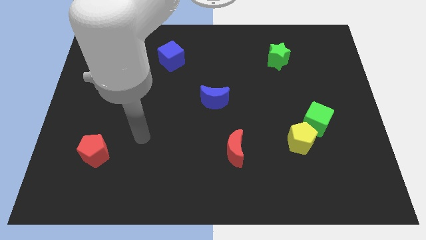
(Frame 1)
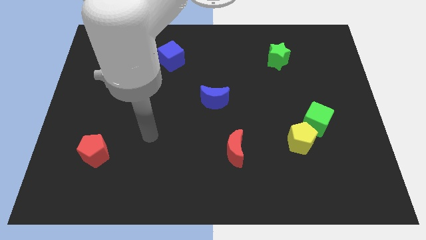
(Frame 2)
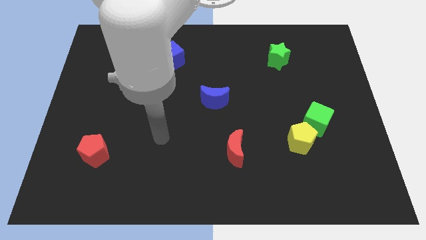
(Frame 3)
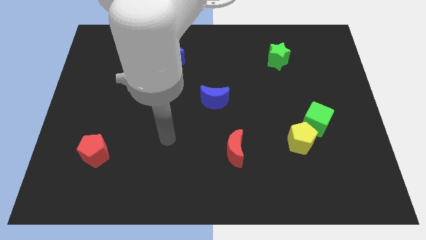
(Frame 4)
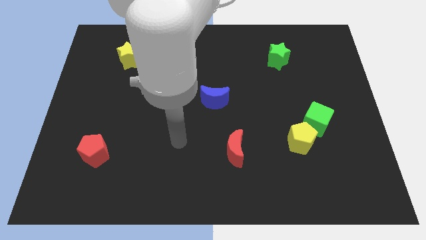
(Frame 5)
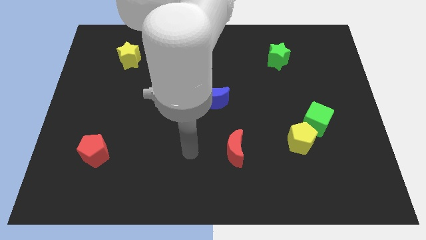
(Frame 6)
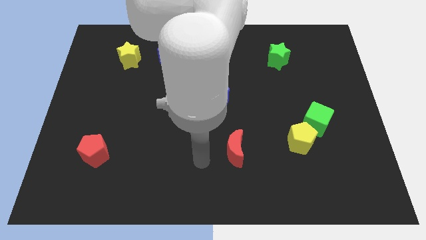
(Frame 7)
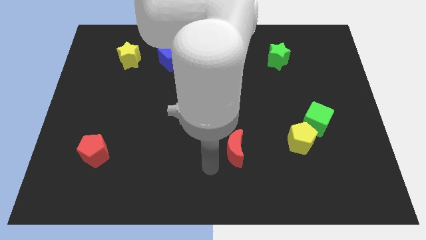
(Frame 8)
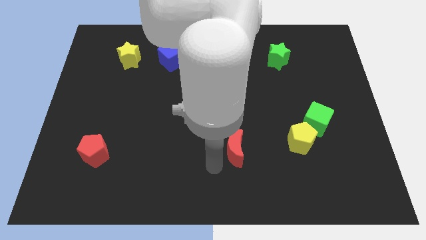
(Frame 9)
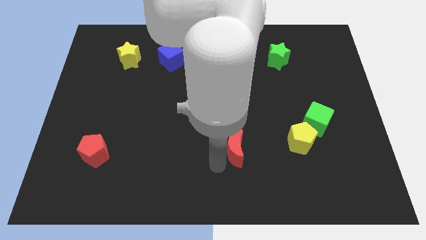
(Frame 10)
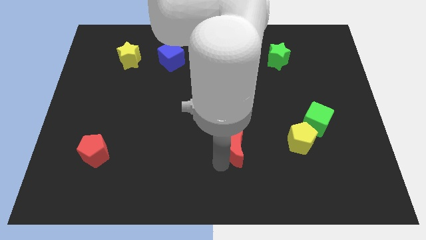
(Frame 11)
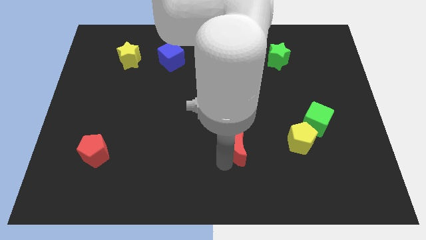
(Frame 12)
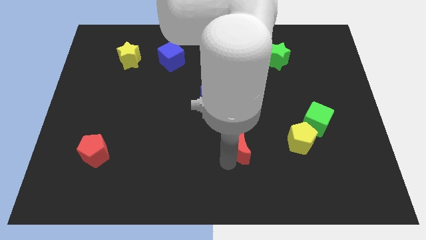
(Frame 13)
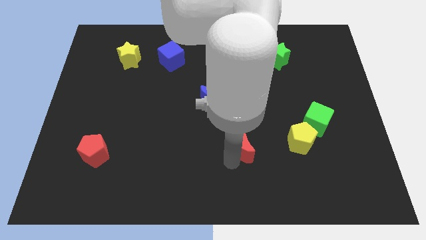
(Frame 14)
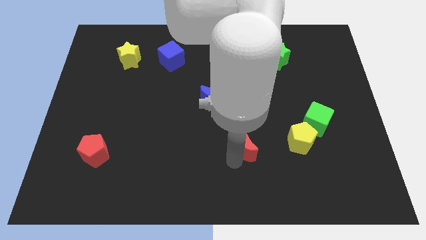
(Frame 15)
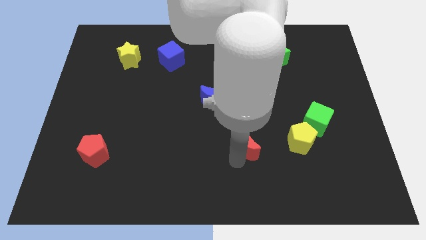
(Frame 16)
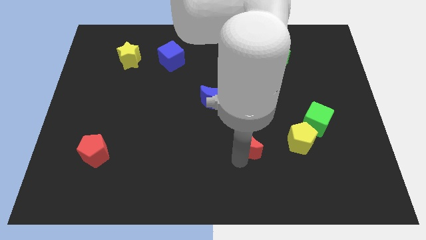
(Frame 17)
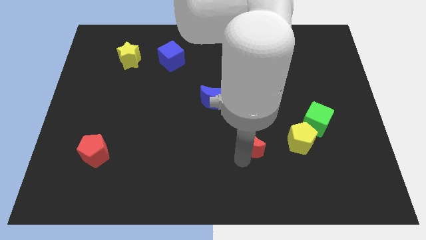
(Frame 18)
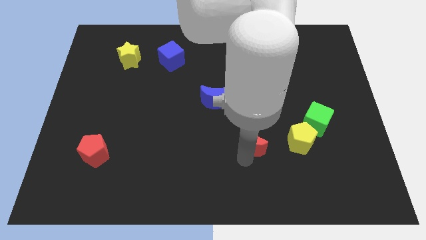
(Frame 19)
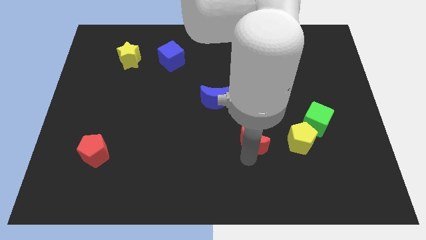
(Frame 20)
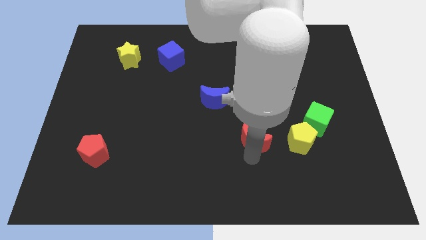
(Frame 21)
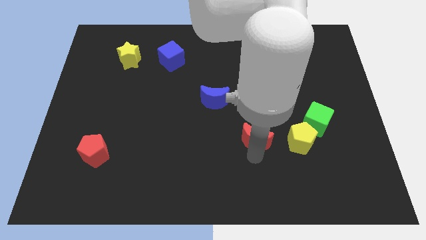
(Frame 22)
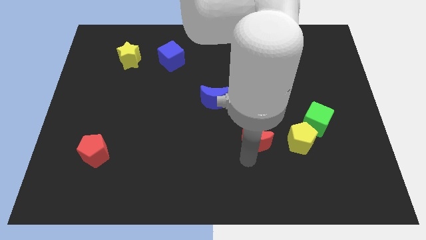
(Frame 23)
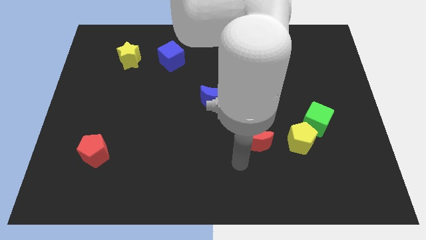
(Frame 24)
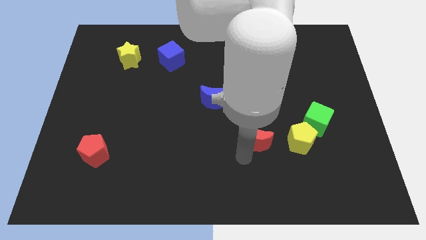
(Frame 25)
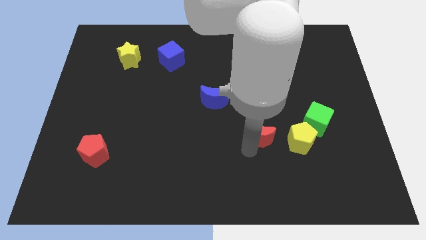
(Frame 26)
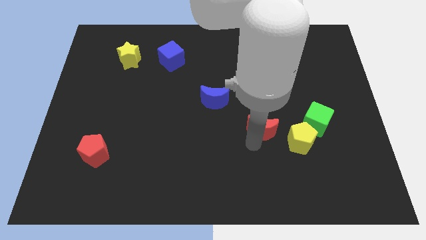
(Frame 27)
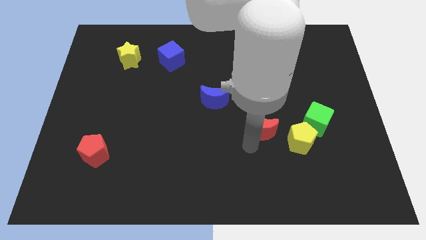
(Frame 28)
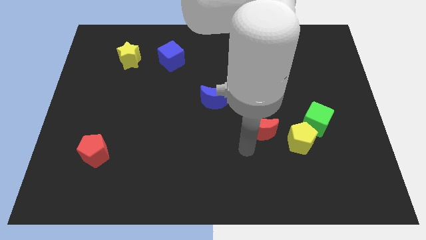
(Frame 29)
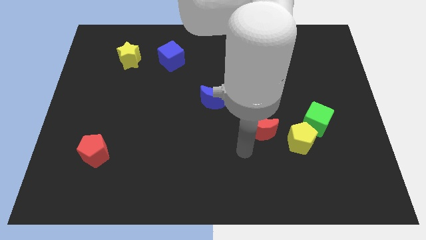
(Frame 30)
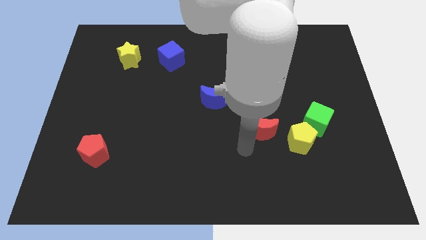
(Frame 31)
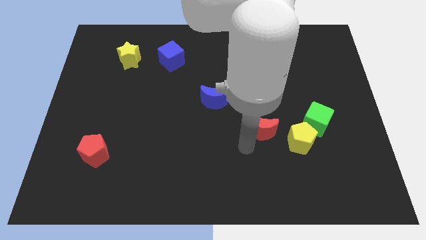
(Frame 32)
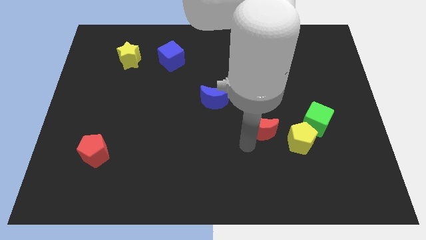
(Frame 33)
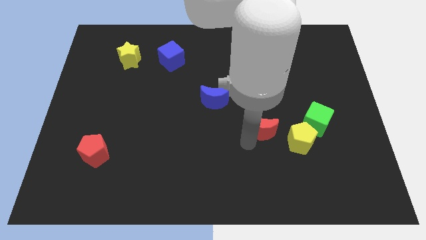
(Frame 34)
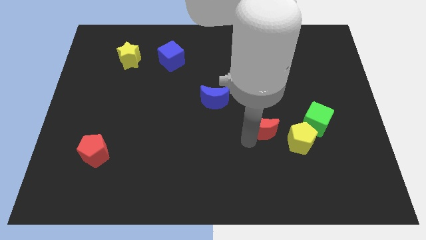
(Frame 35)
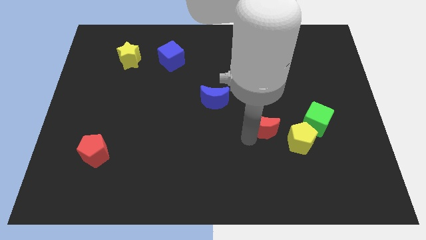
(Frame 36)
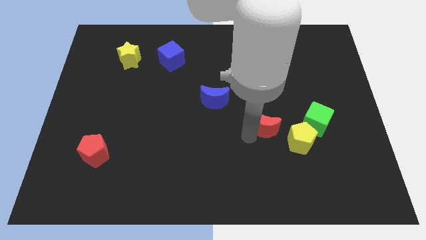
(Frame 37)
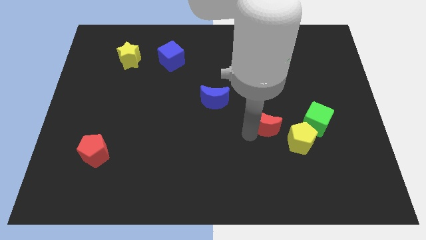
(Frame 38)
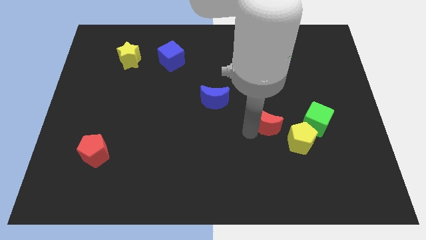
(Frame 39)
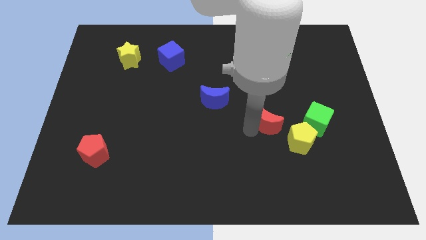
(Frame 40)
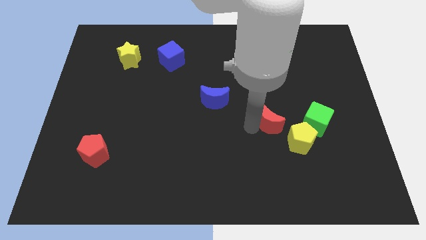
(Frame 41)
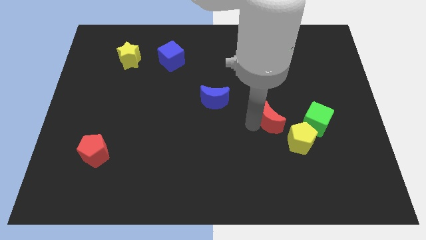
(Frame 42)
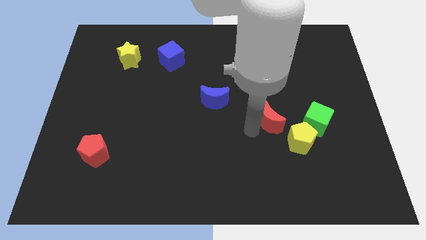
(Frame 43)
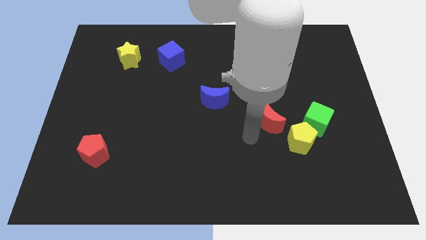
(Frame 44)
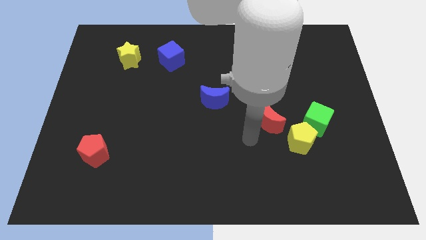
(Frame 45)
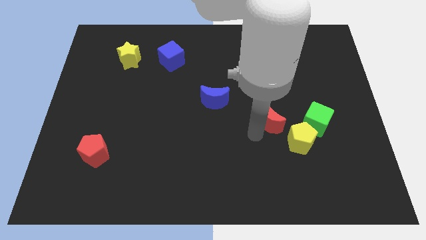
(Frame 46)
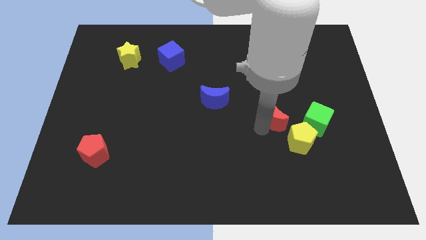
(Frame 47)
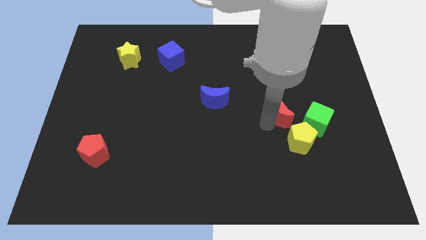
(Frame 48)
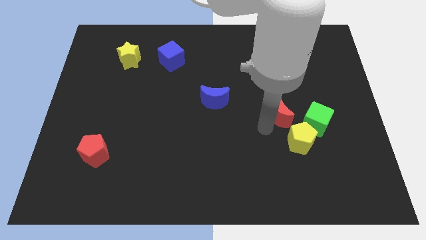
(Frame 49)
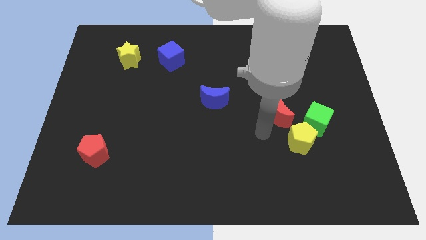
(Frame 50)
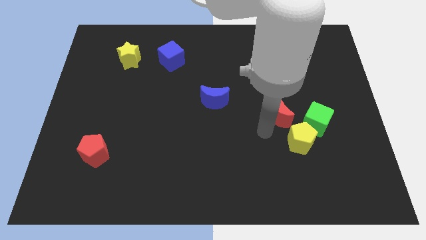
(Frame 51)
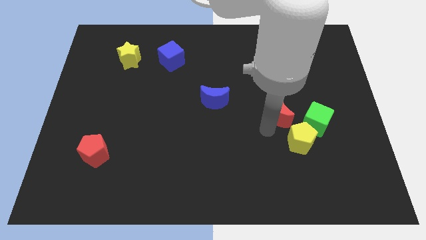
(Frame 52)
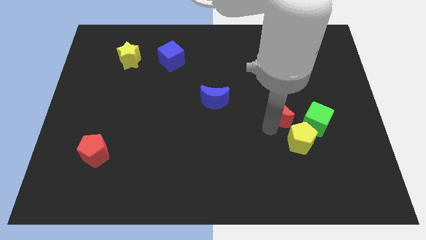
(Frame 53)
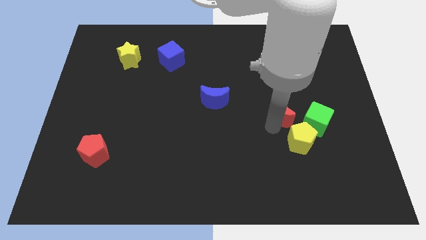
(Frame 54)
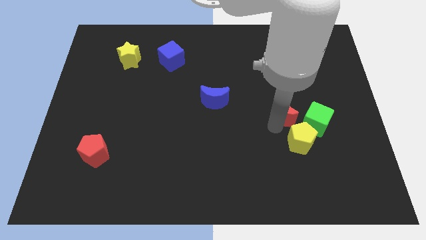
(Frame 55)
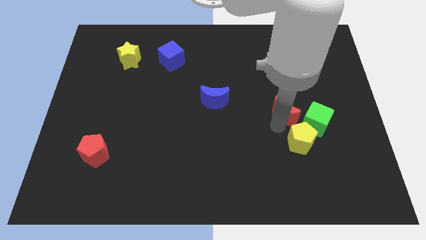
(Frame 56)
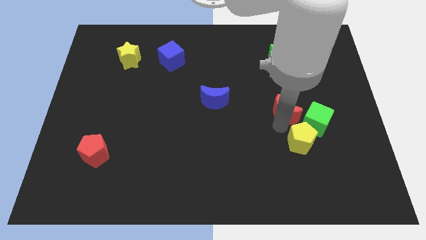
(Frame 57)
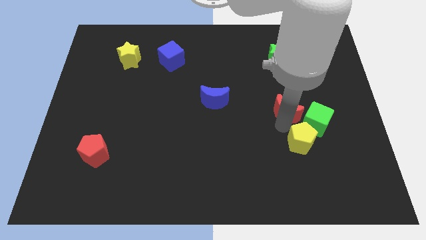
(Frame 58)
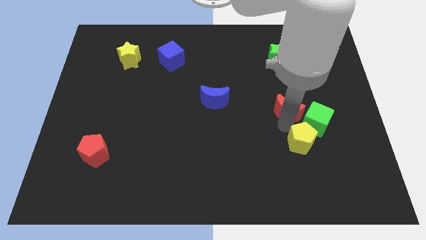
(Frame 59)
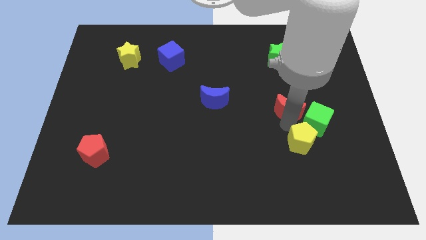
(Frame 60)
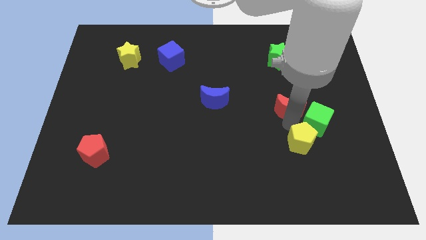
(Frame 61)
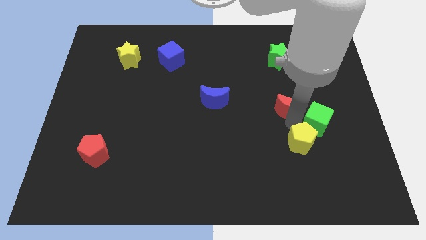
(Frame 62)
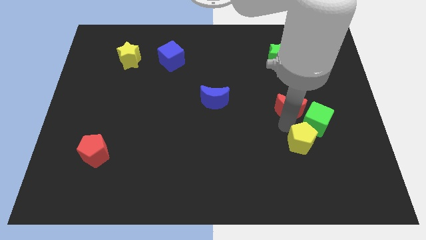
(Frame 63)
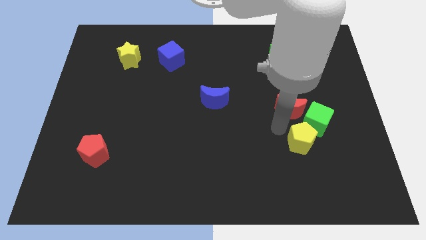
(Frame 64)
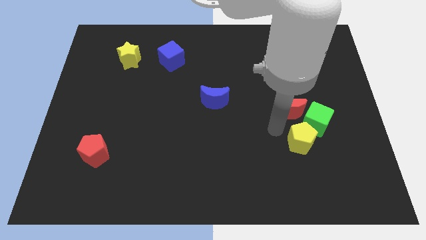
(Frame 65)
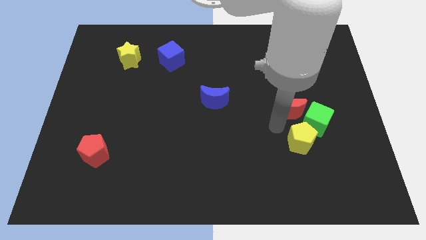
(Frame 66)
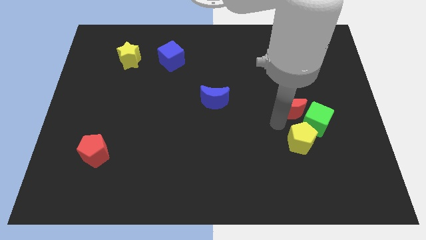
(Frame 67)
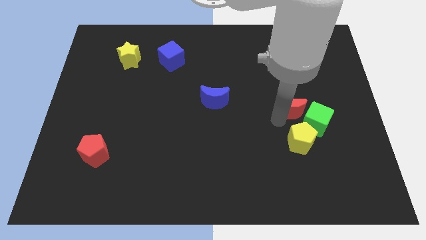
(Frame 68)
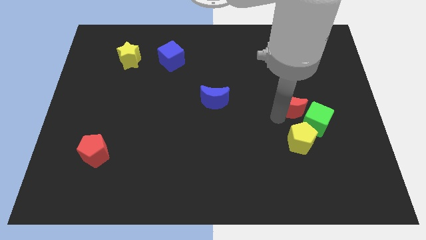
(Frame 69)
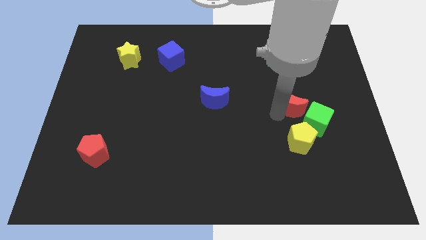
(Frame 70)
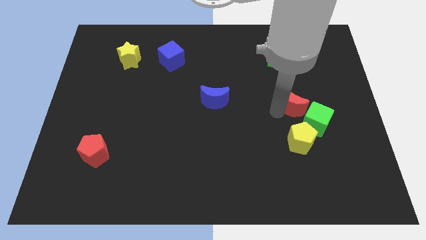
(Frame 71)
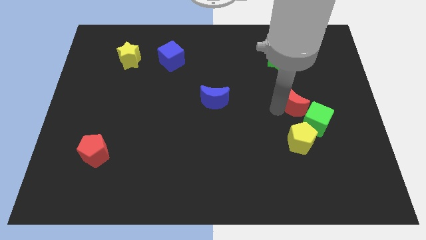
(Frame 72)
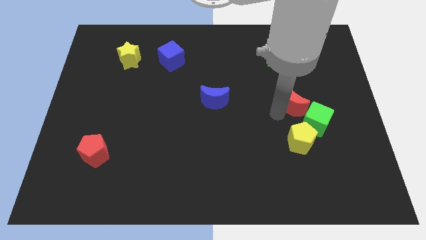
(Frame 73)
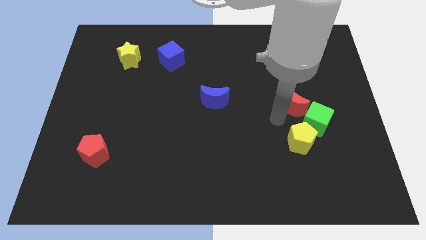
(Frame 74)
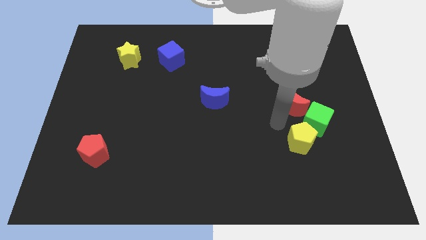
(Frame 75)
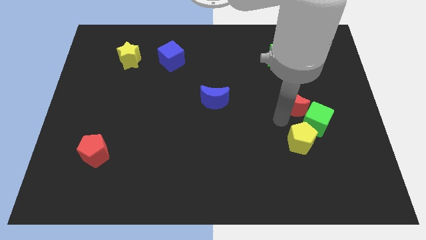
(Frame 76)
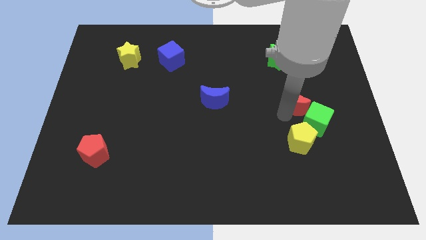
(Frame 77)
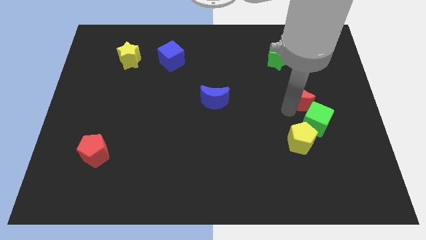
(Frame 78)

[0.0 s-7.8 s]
slide the red moon diagonally up and to the right

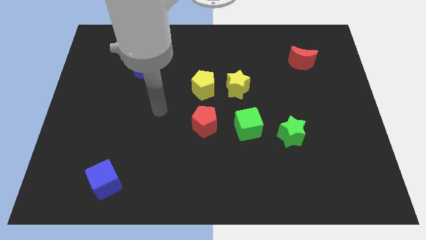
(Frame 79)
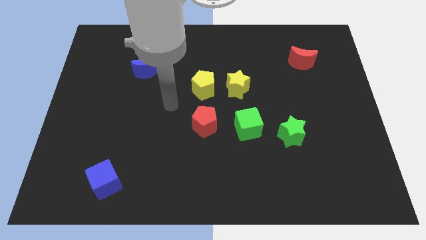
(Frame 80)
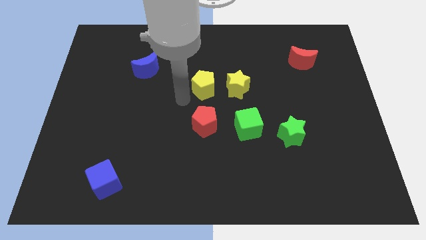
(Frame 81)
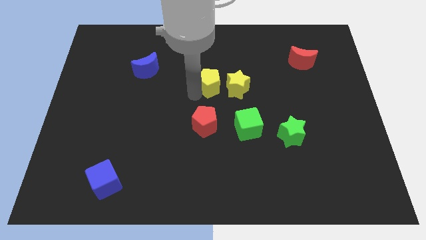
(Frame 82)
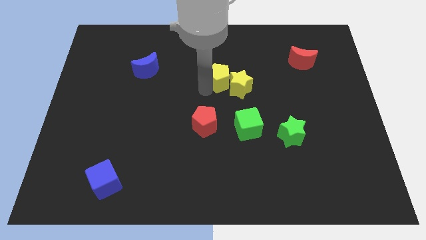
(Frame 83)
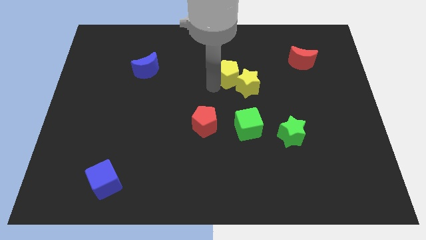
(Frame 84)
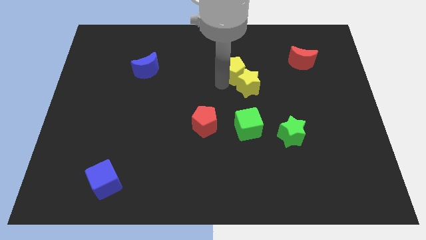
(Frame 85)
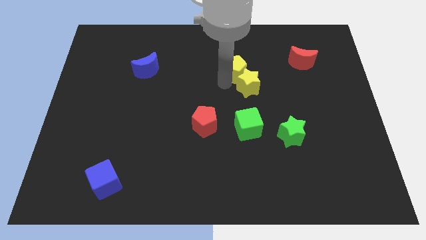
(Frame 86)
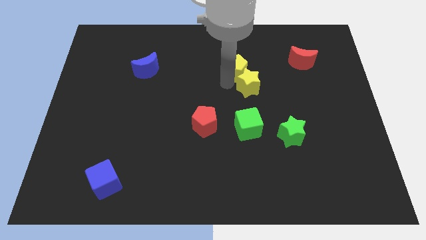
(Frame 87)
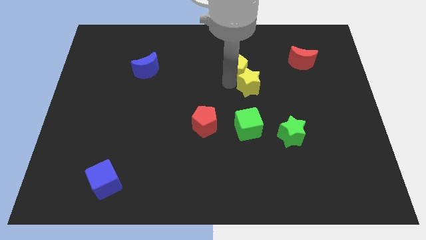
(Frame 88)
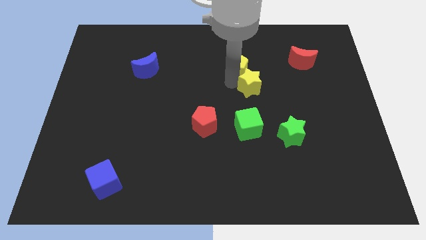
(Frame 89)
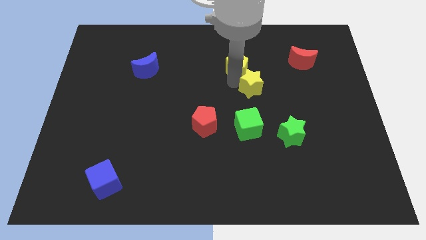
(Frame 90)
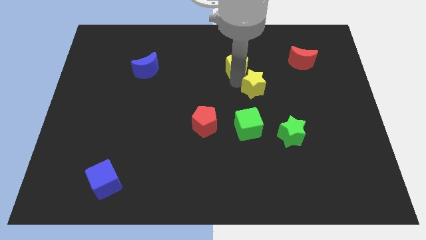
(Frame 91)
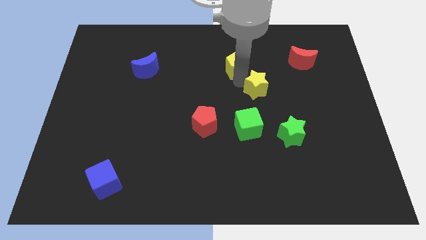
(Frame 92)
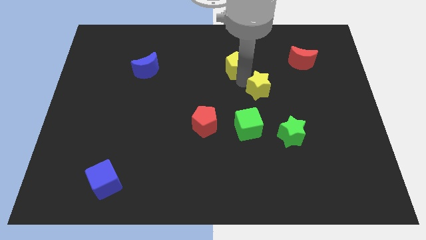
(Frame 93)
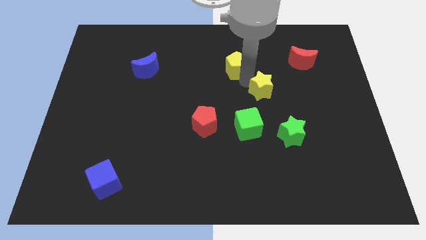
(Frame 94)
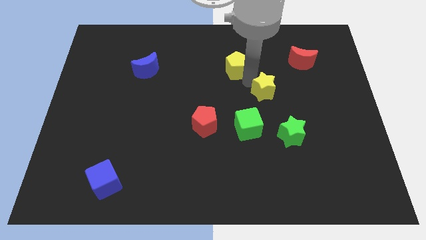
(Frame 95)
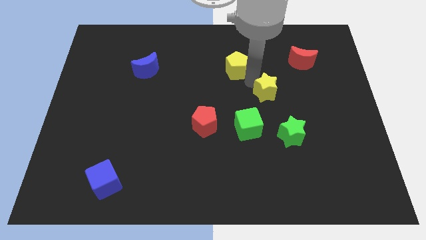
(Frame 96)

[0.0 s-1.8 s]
slide the yellow star right slightly
